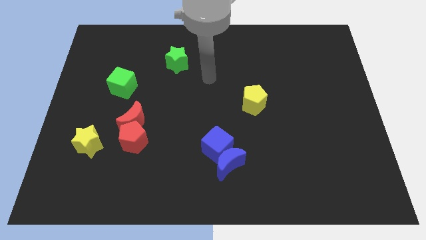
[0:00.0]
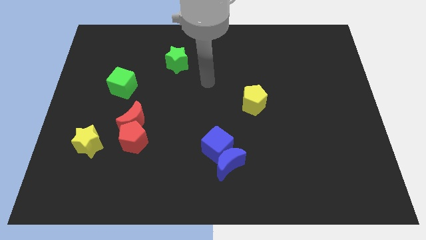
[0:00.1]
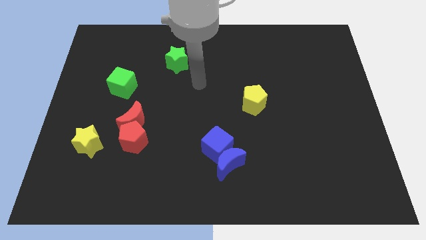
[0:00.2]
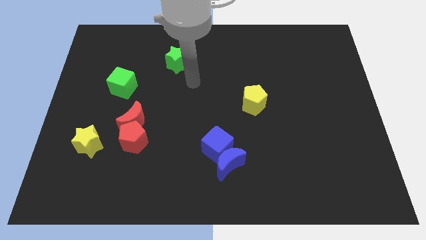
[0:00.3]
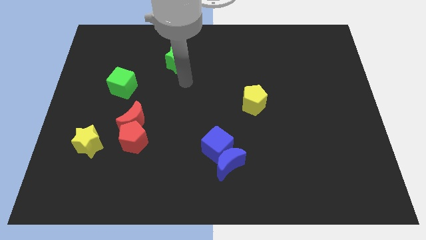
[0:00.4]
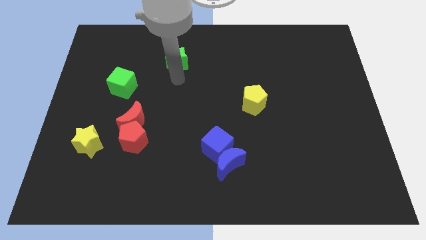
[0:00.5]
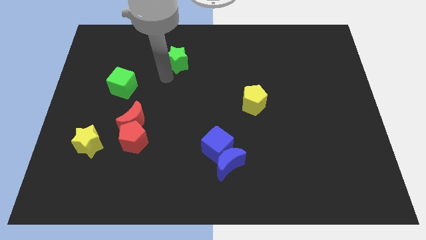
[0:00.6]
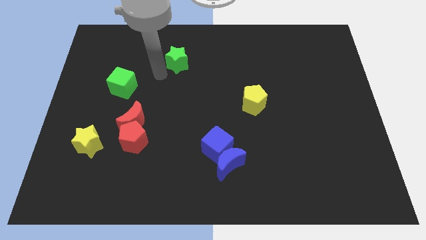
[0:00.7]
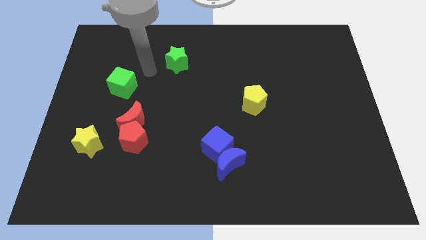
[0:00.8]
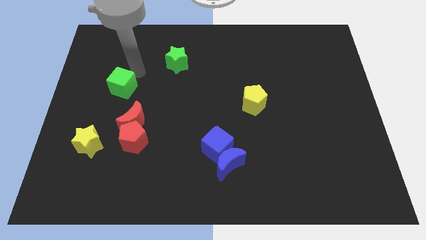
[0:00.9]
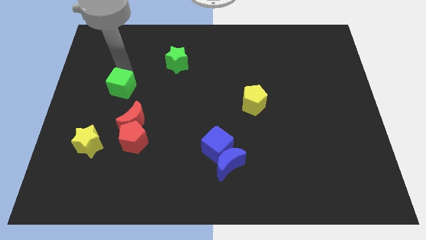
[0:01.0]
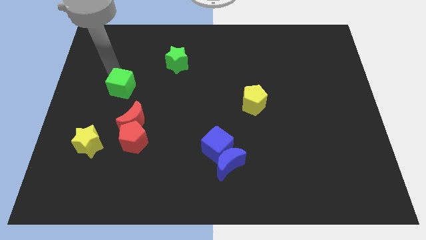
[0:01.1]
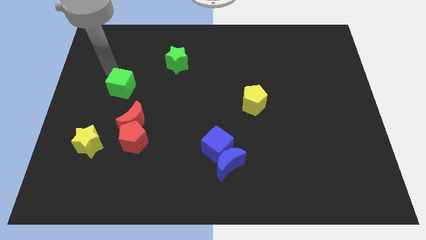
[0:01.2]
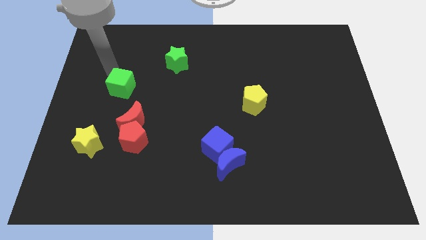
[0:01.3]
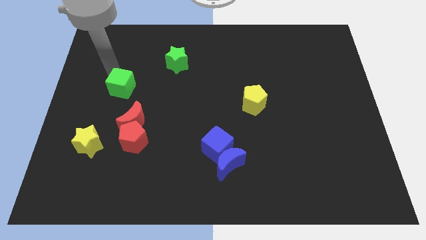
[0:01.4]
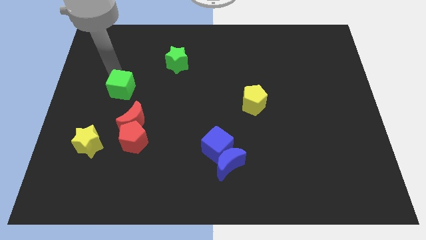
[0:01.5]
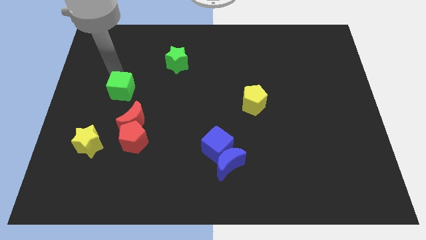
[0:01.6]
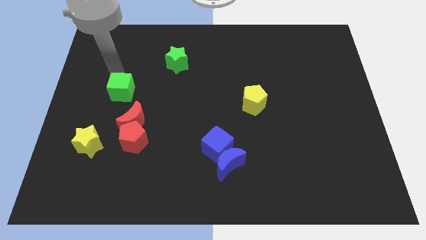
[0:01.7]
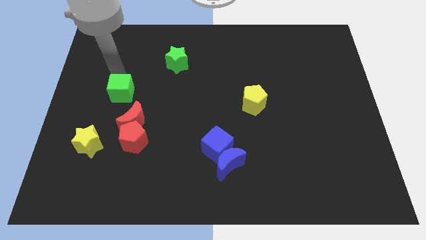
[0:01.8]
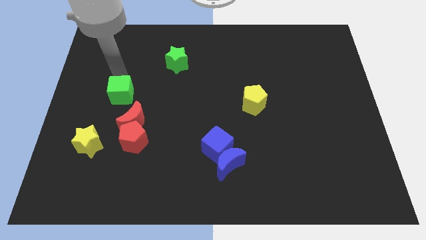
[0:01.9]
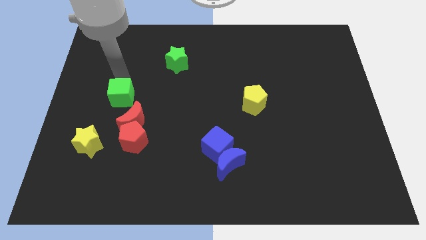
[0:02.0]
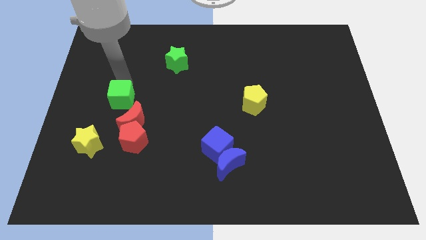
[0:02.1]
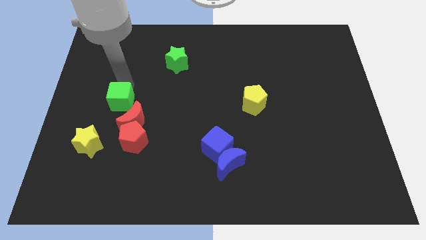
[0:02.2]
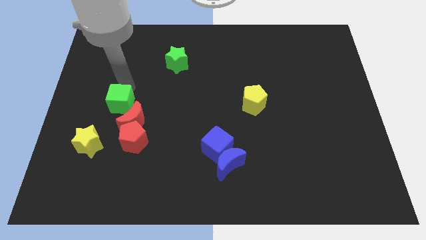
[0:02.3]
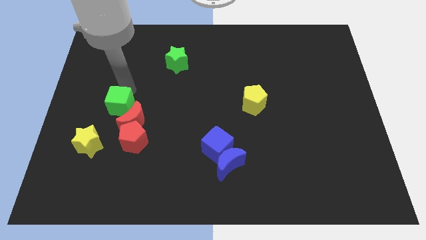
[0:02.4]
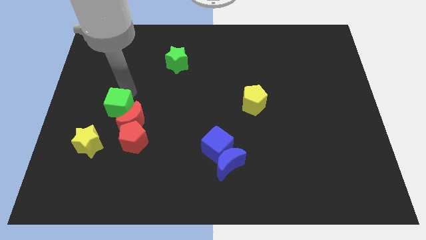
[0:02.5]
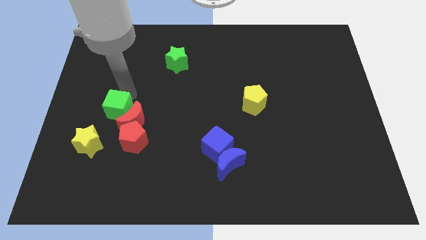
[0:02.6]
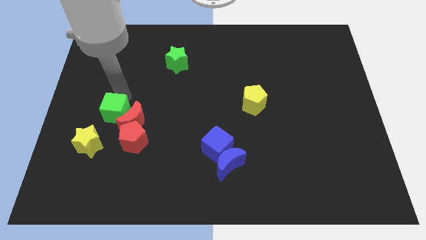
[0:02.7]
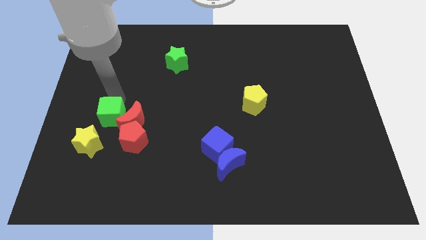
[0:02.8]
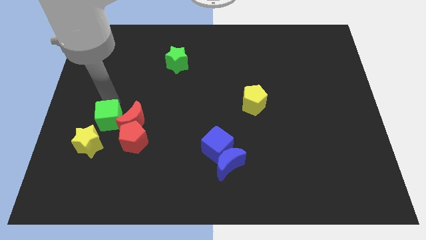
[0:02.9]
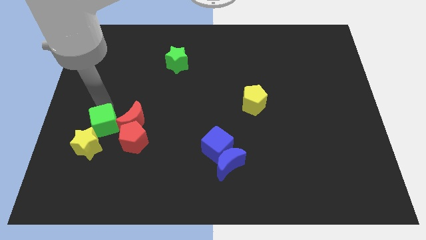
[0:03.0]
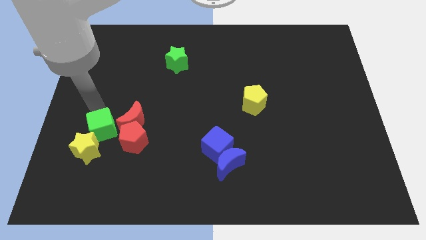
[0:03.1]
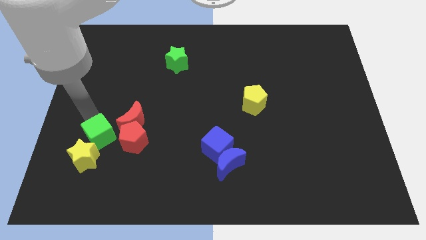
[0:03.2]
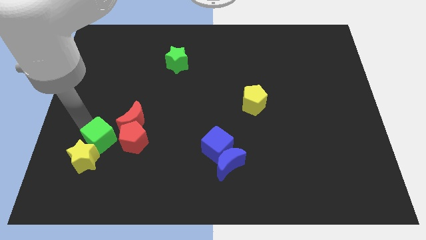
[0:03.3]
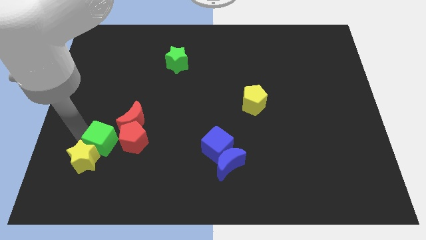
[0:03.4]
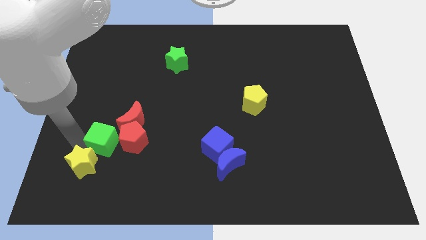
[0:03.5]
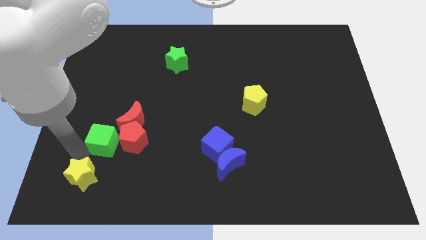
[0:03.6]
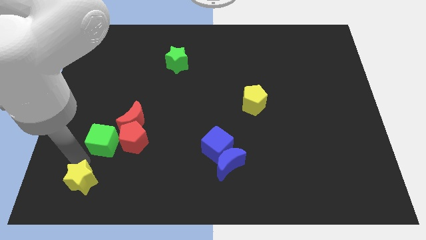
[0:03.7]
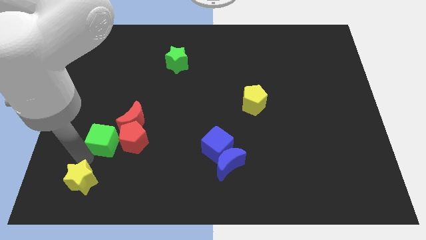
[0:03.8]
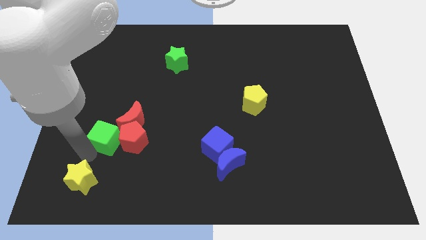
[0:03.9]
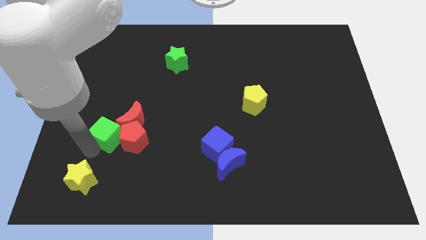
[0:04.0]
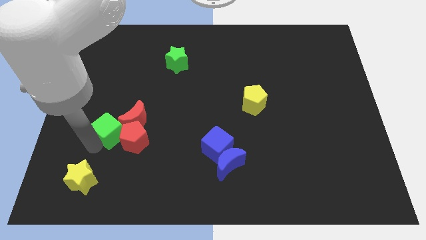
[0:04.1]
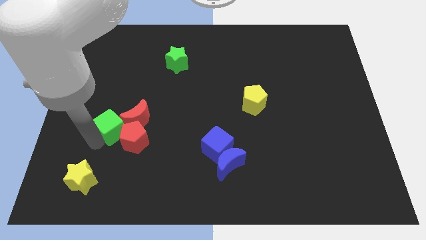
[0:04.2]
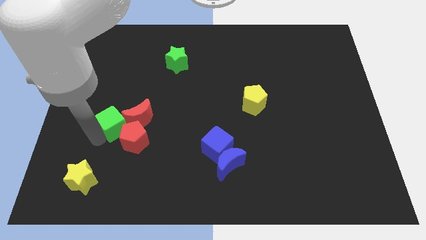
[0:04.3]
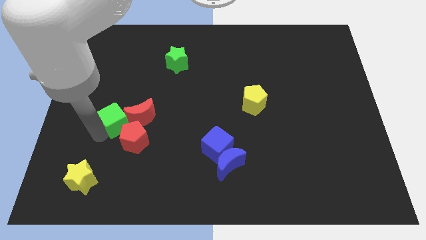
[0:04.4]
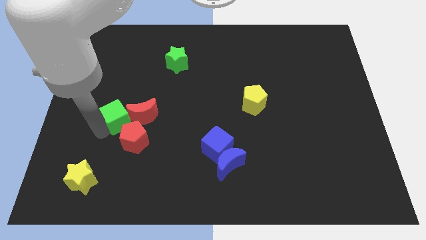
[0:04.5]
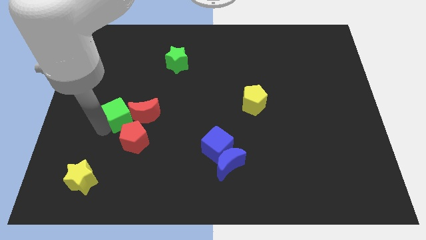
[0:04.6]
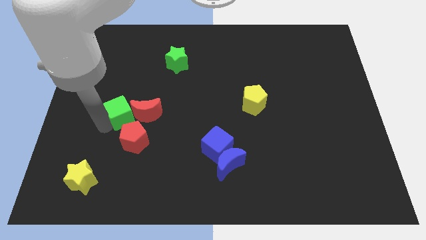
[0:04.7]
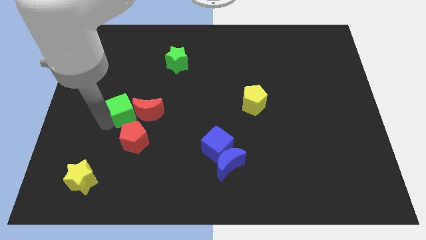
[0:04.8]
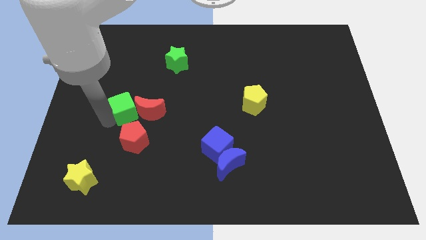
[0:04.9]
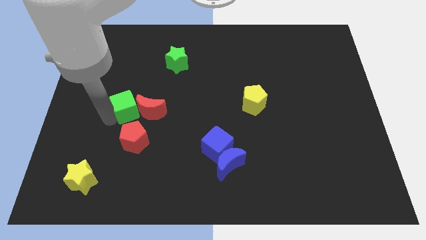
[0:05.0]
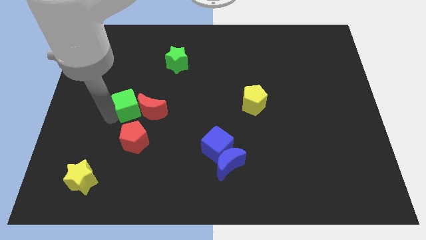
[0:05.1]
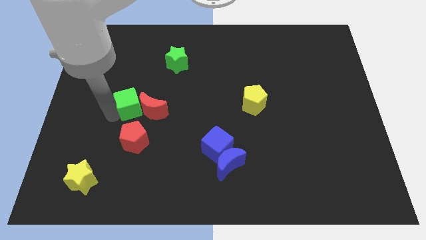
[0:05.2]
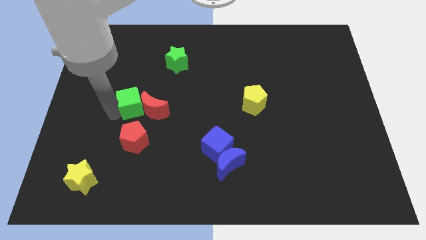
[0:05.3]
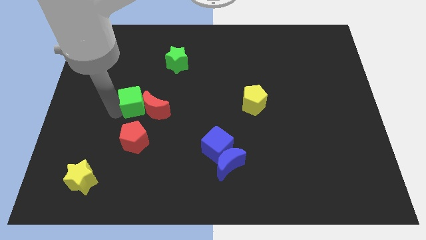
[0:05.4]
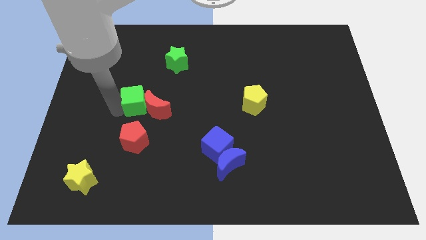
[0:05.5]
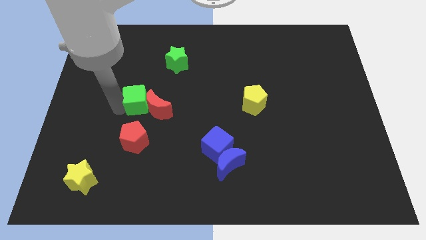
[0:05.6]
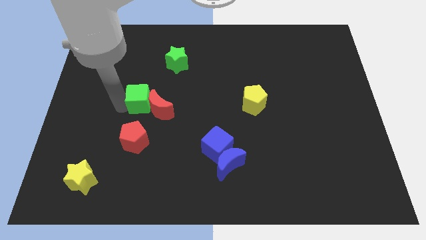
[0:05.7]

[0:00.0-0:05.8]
move the green cube diagonally down and to the right slightly

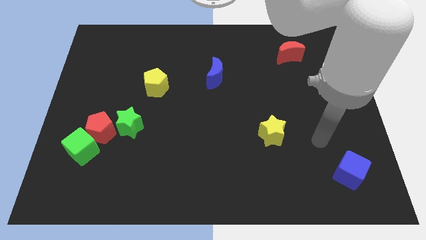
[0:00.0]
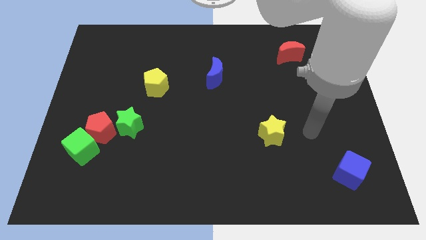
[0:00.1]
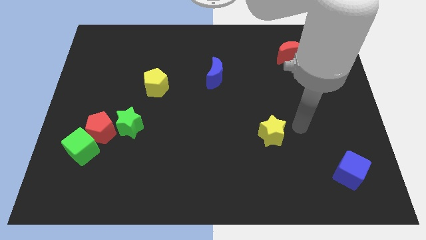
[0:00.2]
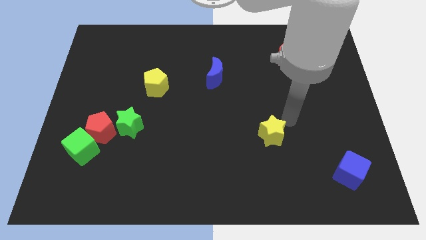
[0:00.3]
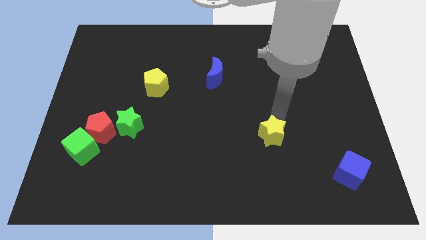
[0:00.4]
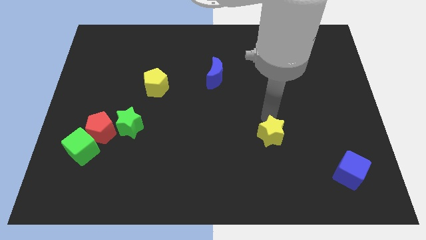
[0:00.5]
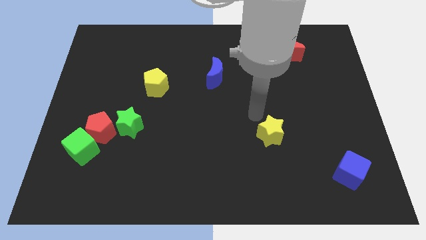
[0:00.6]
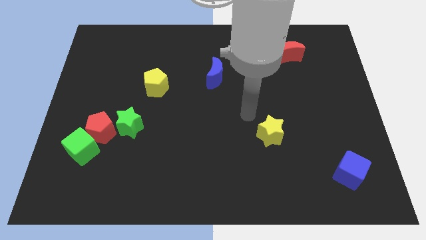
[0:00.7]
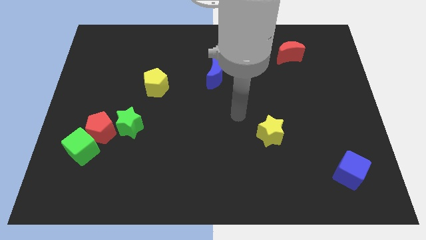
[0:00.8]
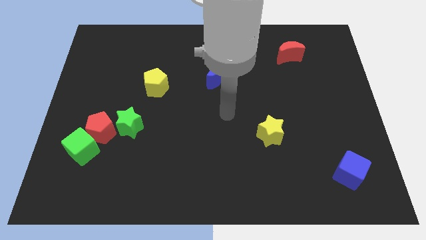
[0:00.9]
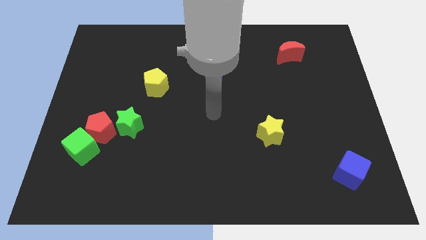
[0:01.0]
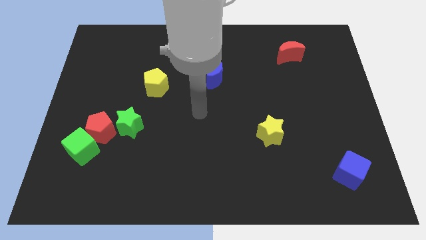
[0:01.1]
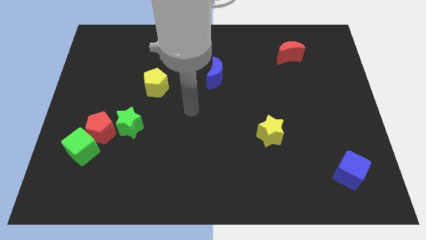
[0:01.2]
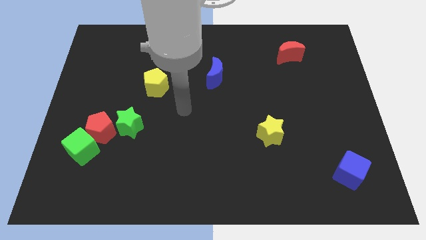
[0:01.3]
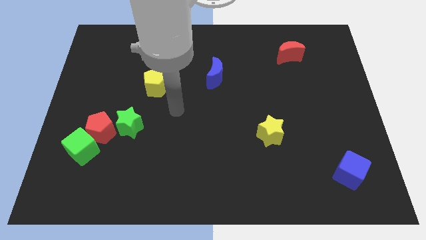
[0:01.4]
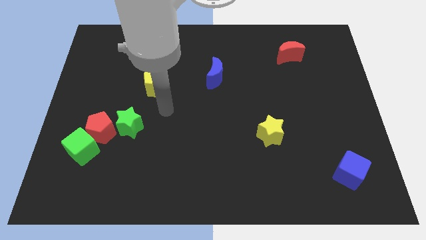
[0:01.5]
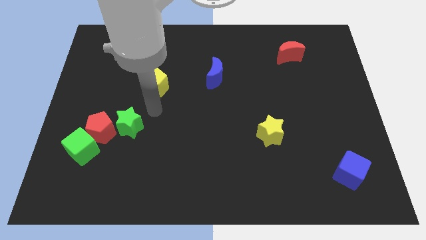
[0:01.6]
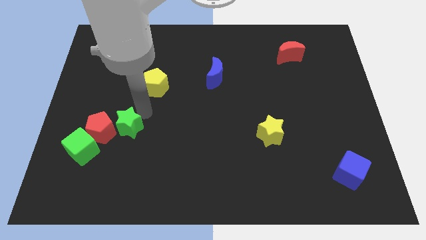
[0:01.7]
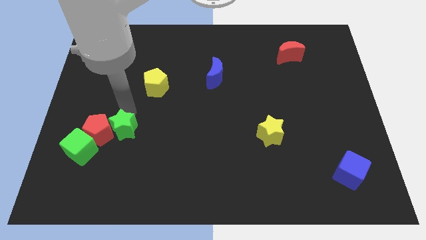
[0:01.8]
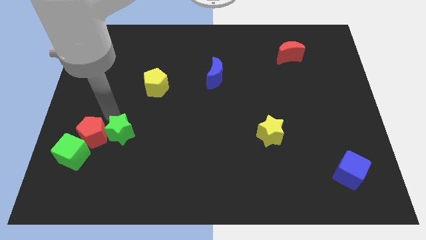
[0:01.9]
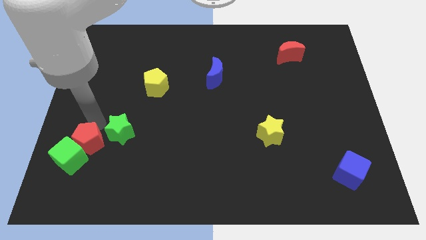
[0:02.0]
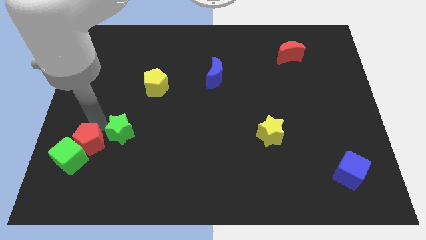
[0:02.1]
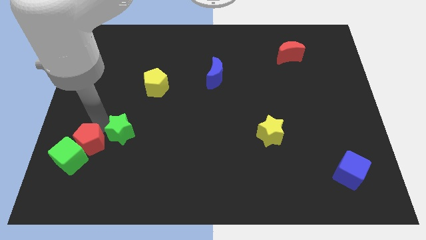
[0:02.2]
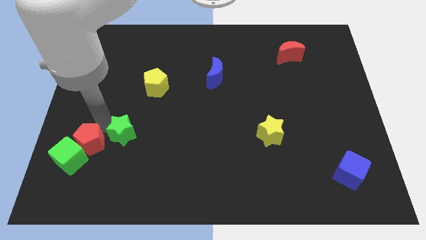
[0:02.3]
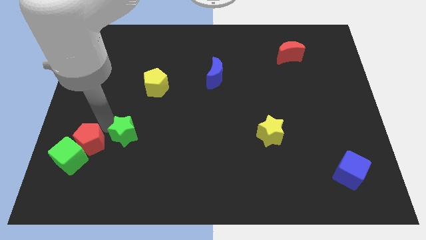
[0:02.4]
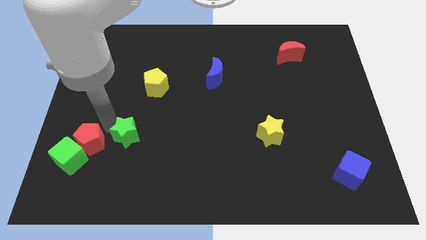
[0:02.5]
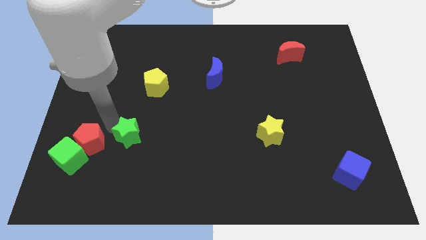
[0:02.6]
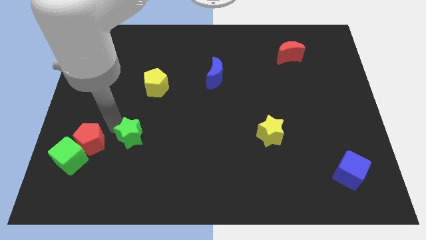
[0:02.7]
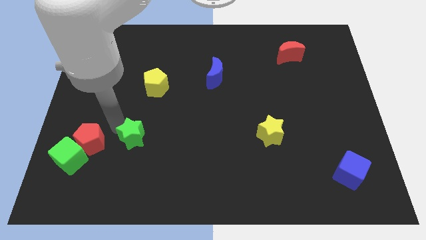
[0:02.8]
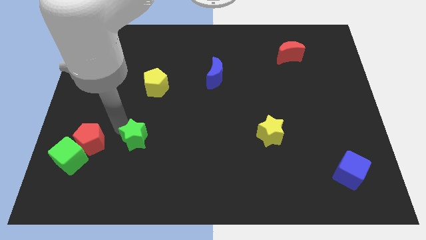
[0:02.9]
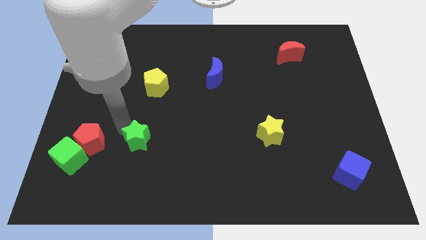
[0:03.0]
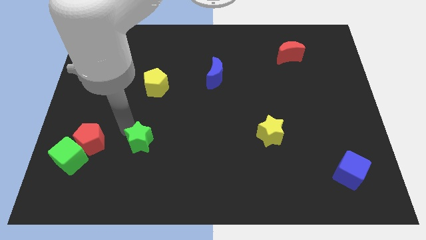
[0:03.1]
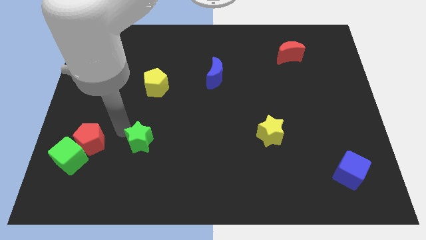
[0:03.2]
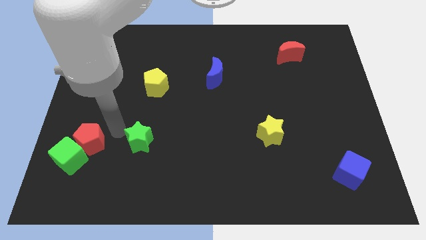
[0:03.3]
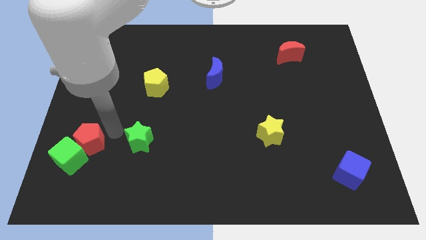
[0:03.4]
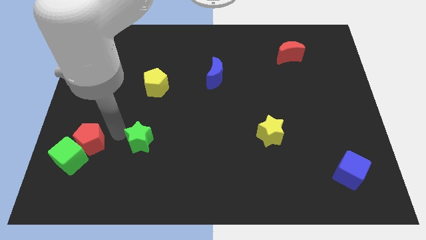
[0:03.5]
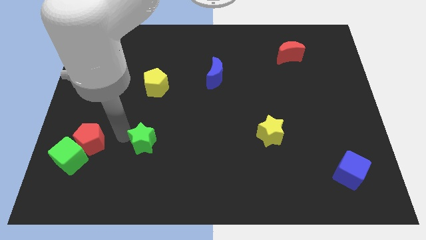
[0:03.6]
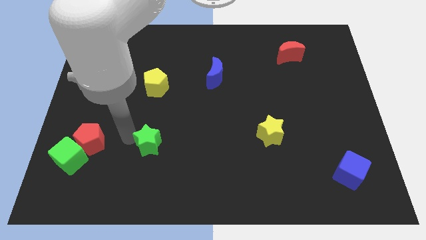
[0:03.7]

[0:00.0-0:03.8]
slightly slide the green star down and then to the right
